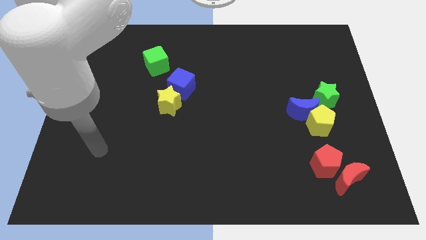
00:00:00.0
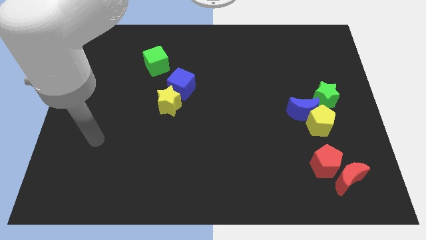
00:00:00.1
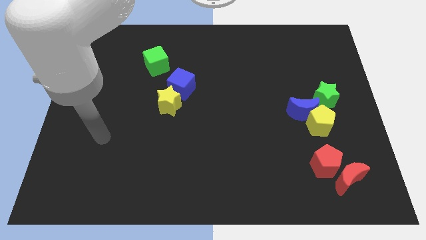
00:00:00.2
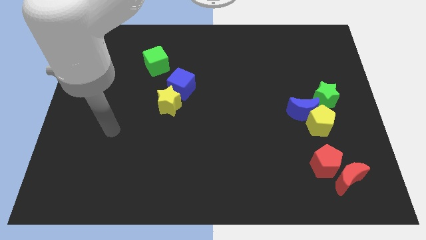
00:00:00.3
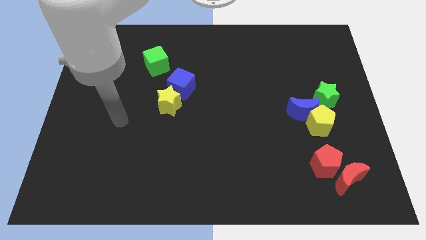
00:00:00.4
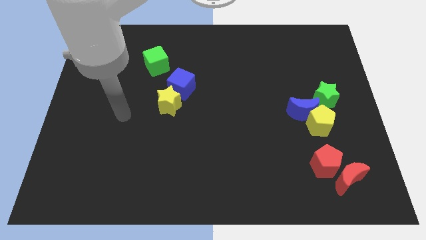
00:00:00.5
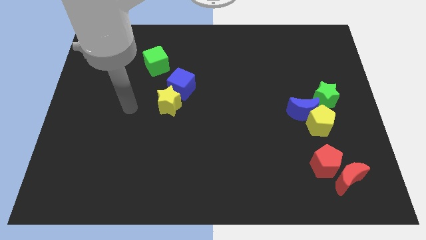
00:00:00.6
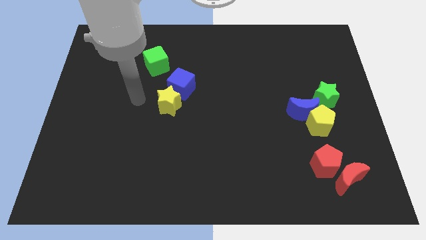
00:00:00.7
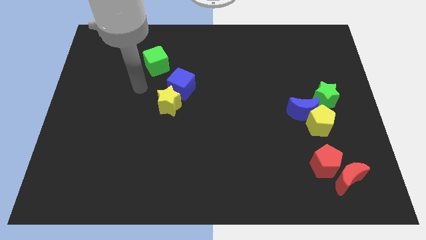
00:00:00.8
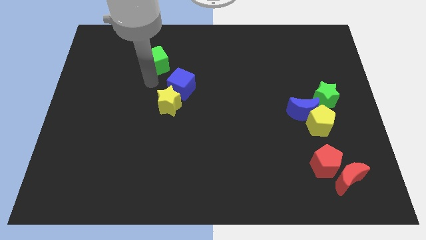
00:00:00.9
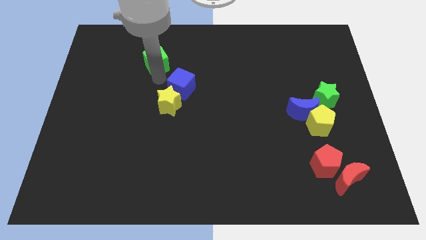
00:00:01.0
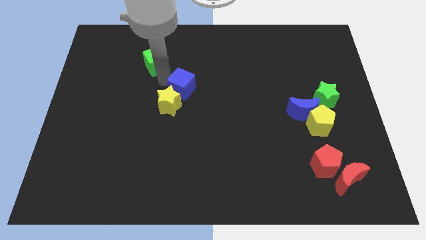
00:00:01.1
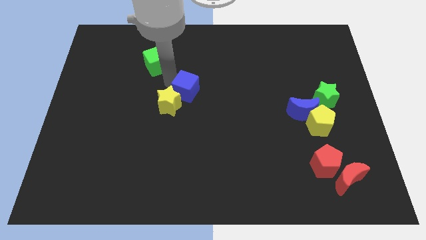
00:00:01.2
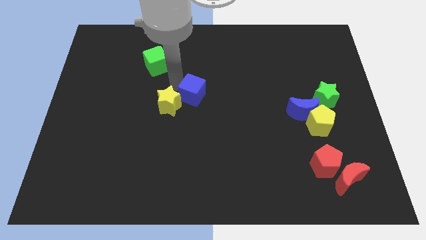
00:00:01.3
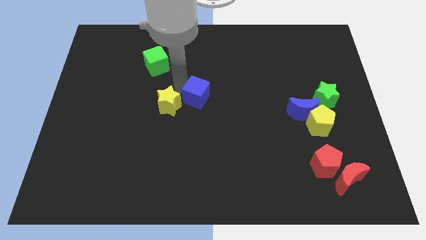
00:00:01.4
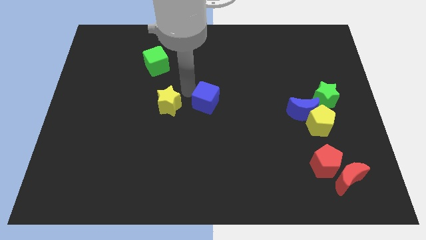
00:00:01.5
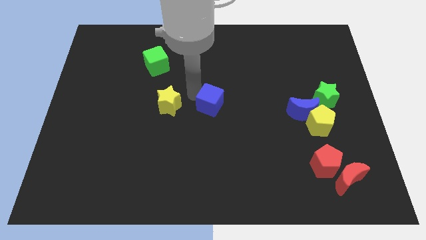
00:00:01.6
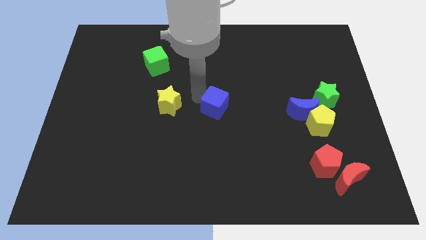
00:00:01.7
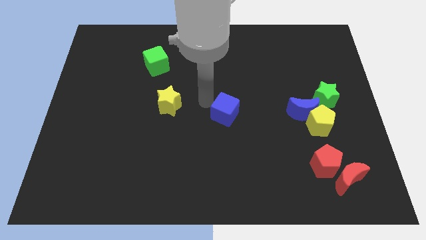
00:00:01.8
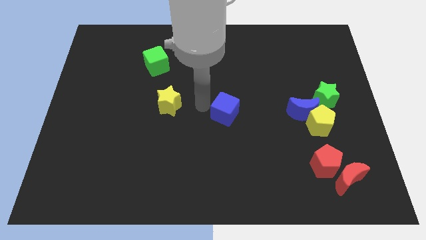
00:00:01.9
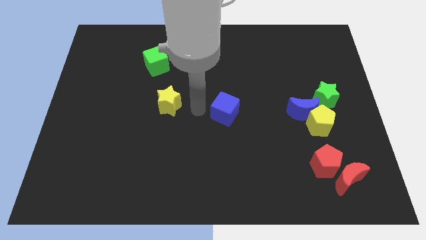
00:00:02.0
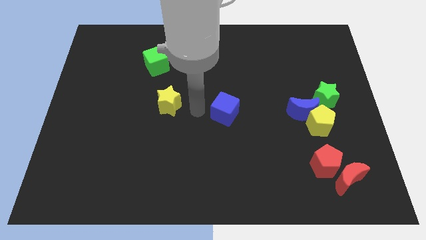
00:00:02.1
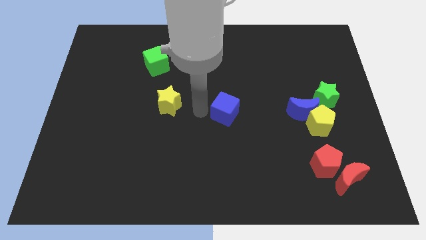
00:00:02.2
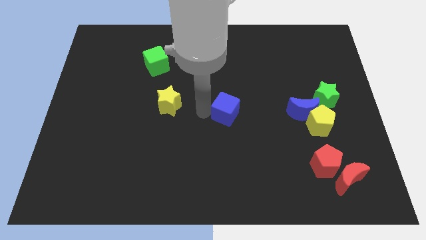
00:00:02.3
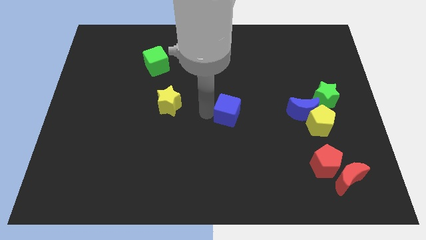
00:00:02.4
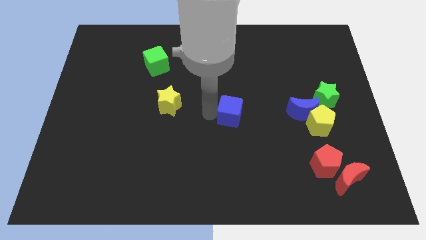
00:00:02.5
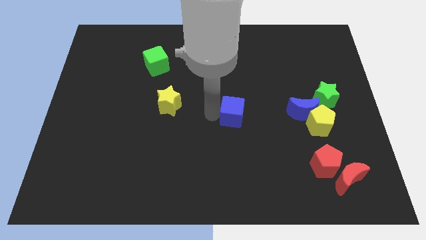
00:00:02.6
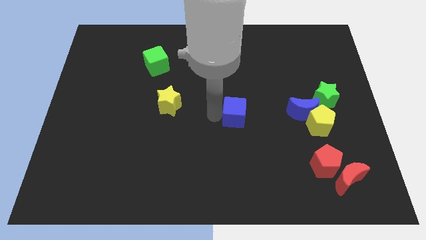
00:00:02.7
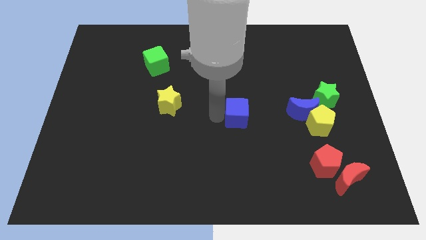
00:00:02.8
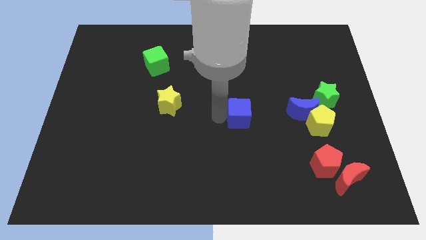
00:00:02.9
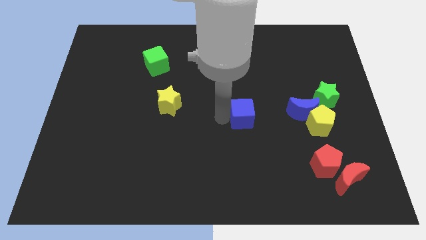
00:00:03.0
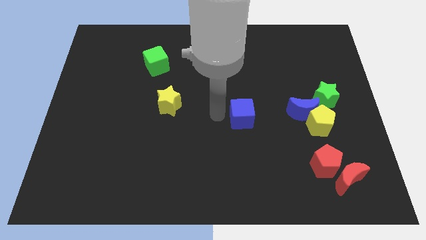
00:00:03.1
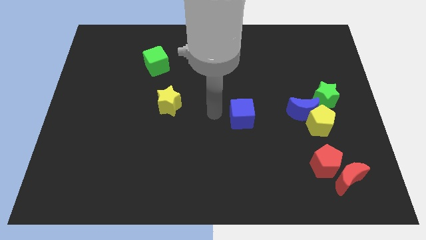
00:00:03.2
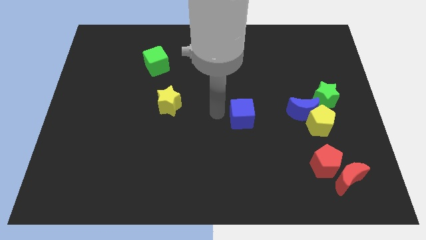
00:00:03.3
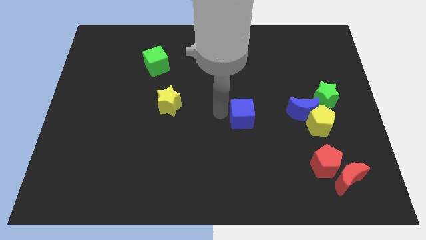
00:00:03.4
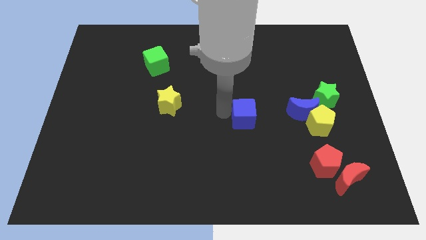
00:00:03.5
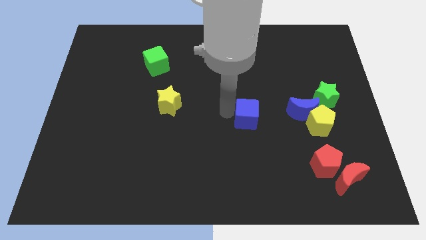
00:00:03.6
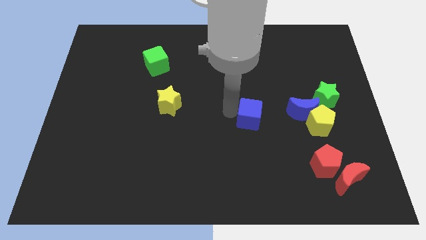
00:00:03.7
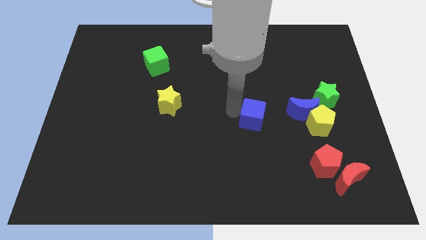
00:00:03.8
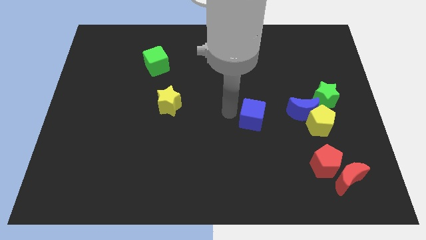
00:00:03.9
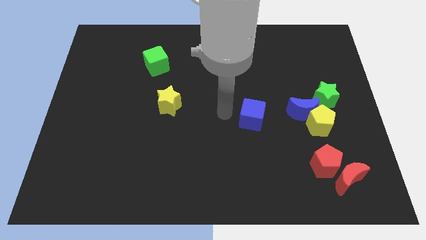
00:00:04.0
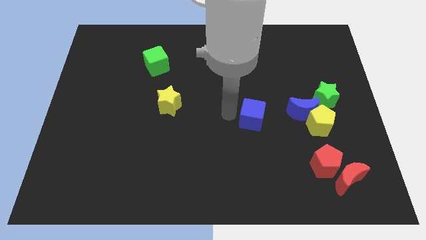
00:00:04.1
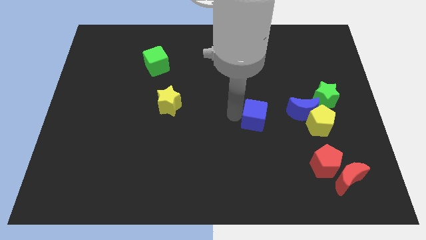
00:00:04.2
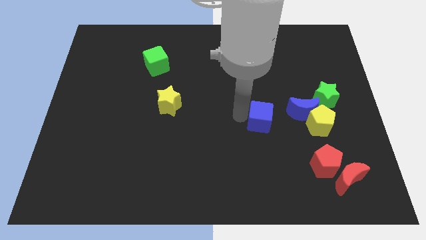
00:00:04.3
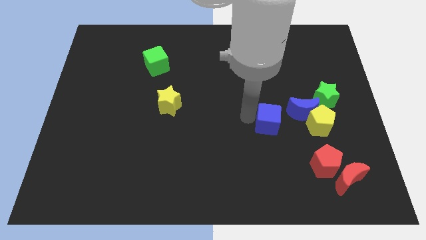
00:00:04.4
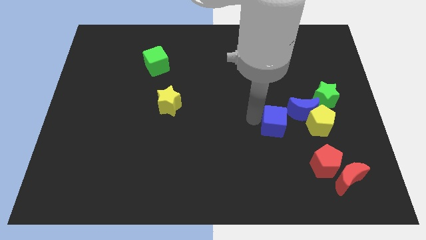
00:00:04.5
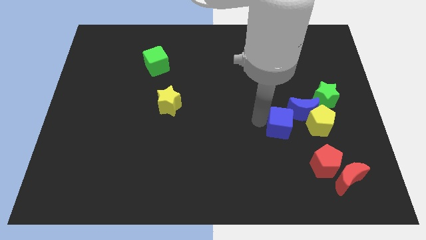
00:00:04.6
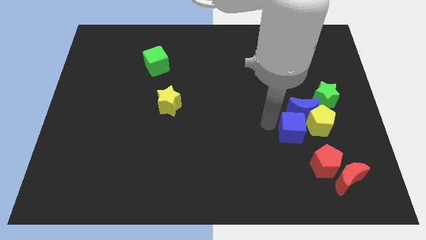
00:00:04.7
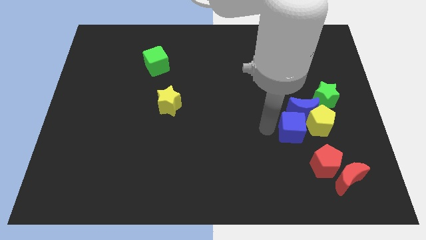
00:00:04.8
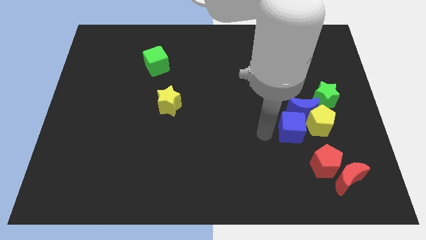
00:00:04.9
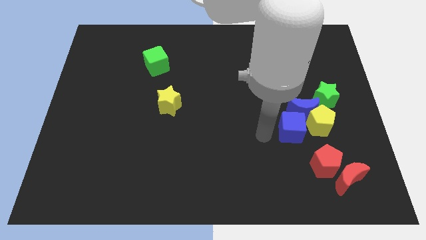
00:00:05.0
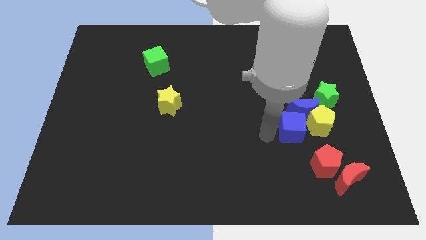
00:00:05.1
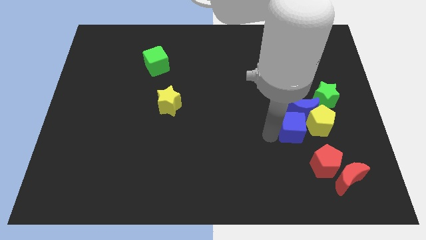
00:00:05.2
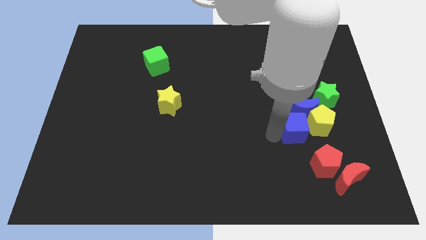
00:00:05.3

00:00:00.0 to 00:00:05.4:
put the blue cube next to the yellow pentagon

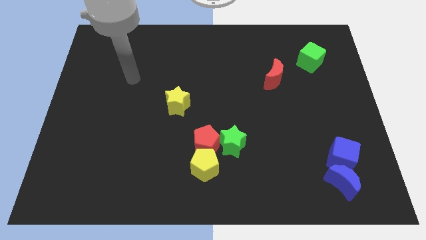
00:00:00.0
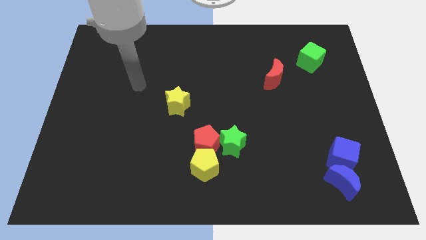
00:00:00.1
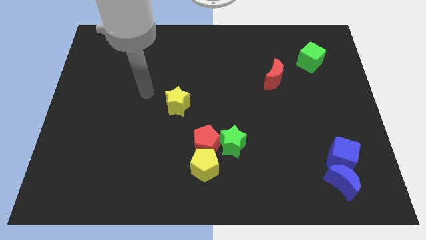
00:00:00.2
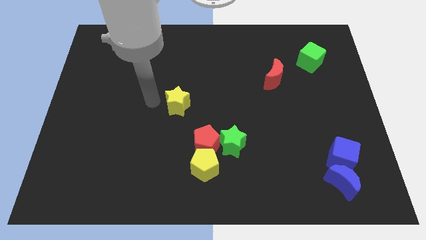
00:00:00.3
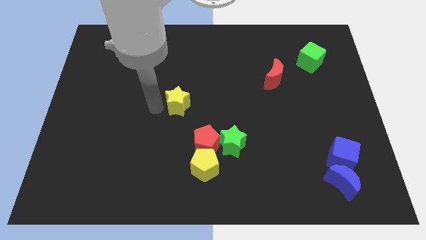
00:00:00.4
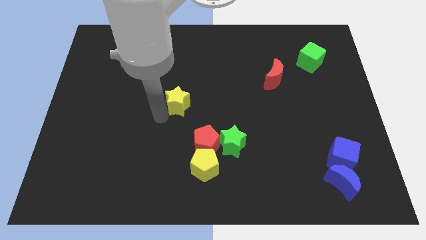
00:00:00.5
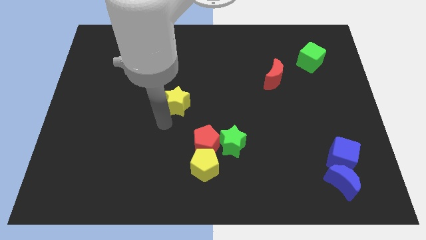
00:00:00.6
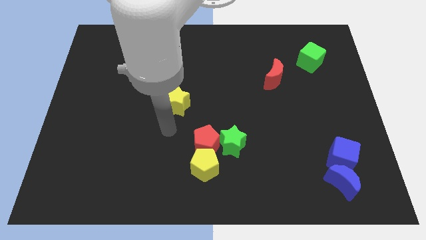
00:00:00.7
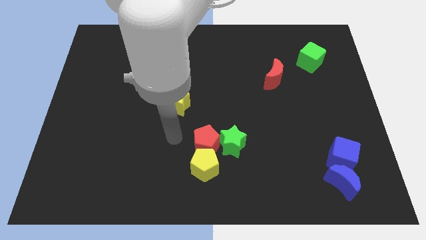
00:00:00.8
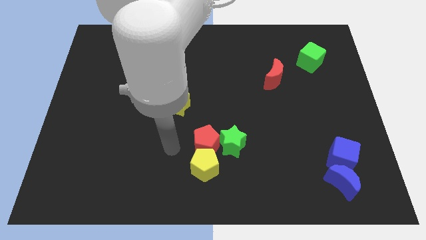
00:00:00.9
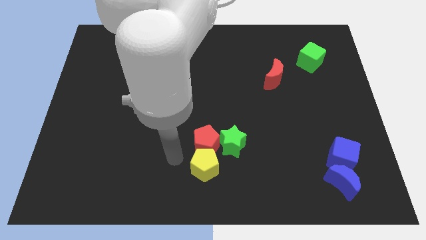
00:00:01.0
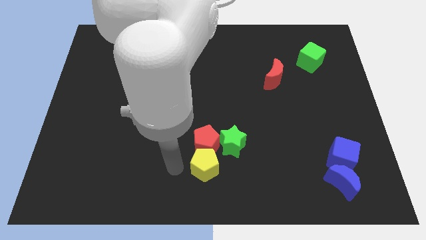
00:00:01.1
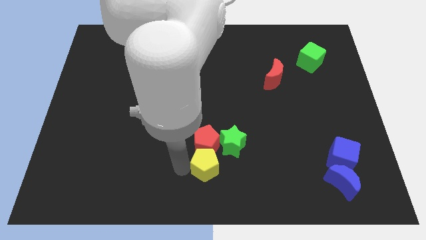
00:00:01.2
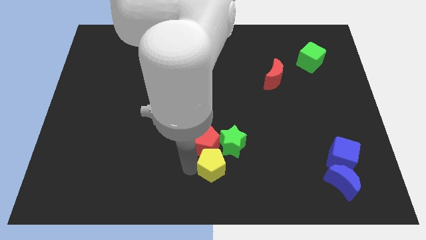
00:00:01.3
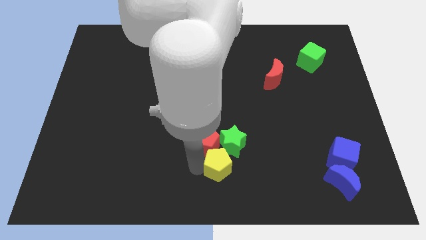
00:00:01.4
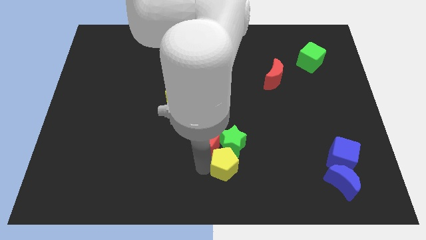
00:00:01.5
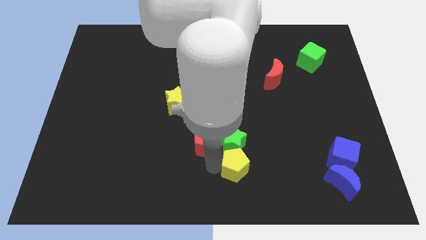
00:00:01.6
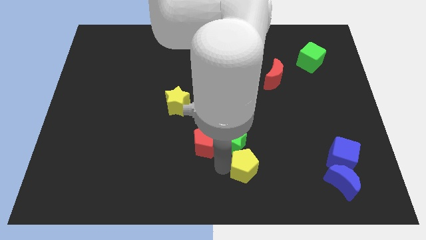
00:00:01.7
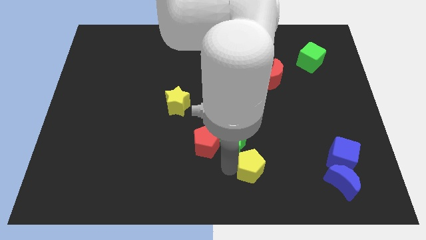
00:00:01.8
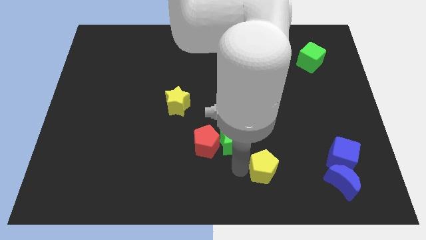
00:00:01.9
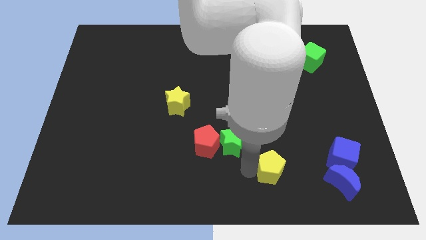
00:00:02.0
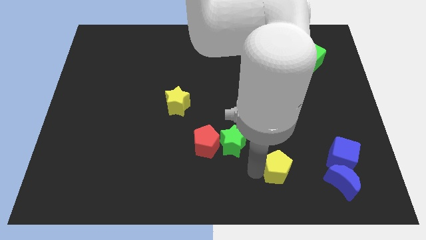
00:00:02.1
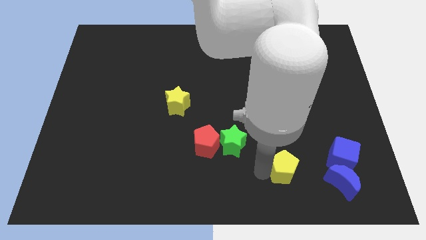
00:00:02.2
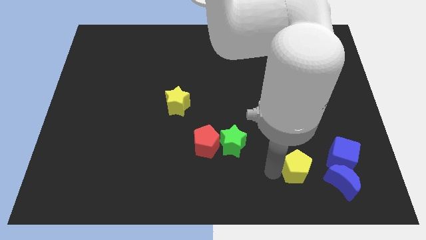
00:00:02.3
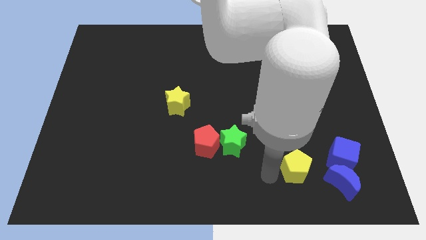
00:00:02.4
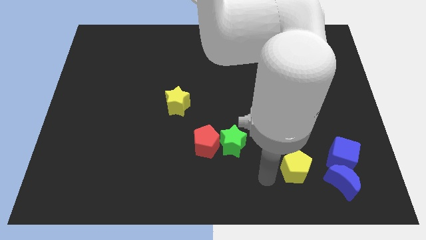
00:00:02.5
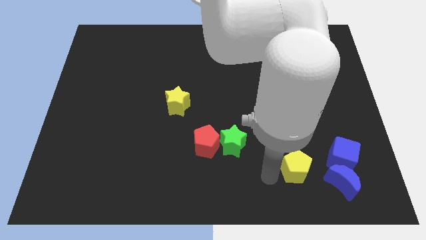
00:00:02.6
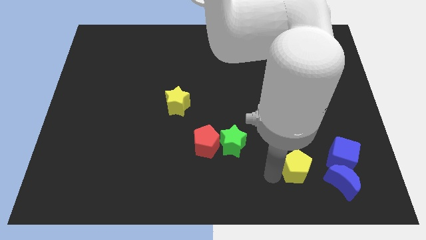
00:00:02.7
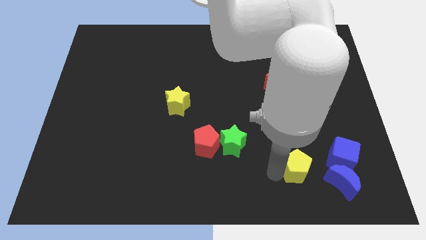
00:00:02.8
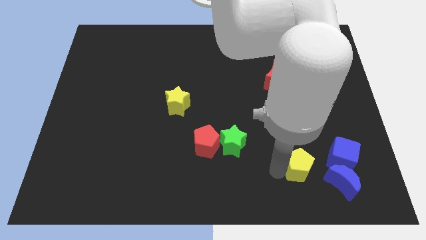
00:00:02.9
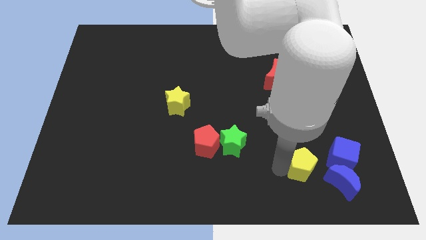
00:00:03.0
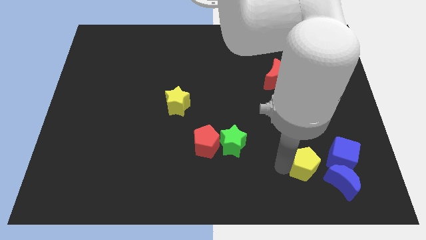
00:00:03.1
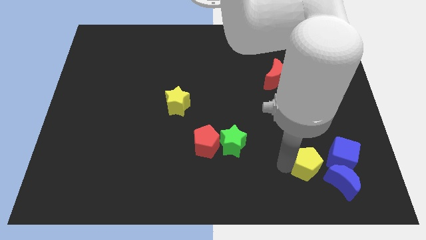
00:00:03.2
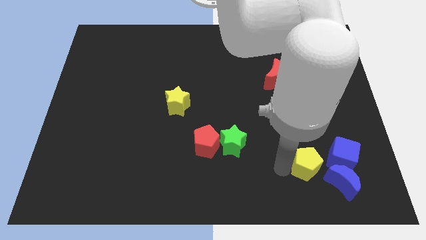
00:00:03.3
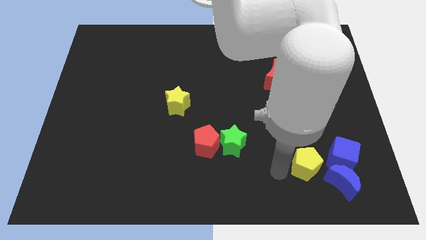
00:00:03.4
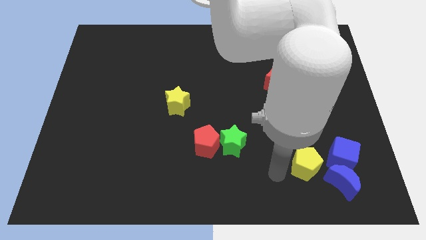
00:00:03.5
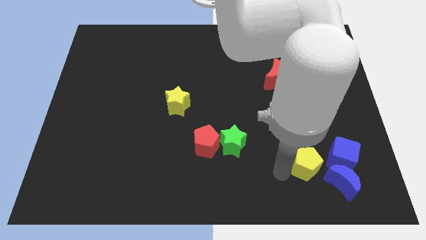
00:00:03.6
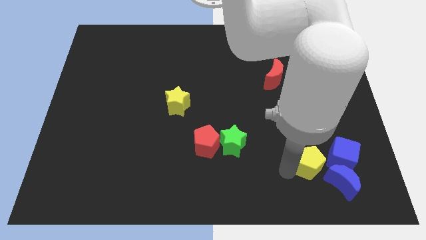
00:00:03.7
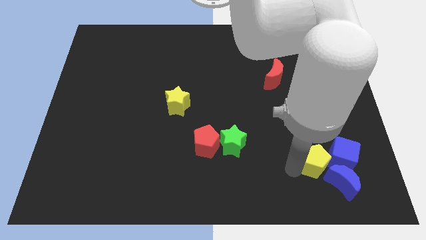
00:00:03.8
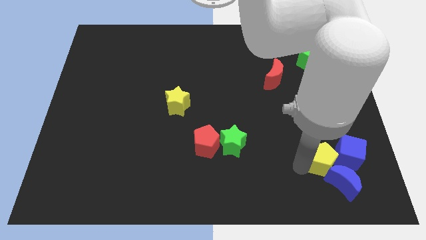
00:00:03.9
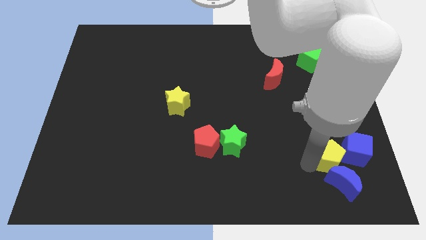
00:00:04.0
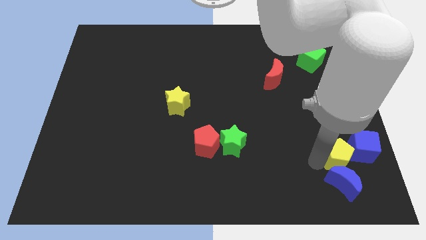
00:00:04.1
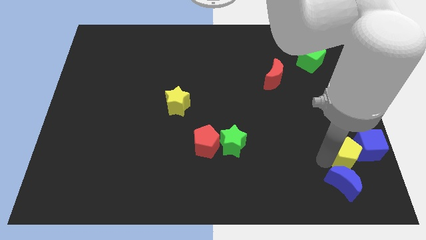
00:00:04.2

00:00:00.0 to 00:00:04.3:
put the yellow pentagon to the blue cube
